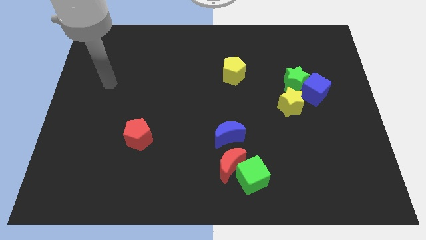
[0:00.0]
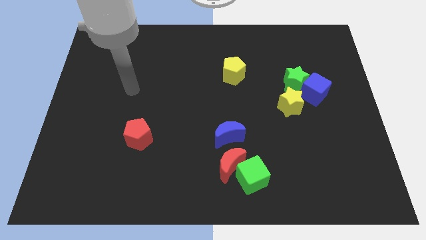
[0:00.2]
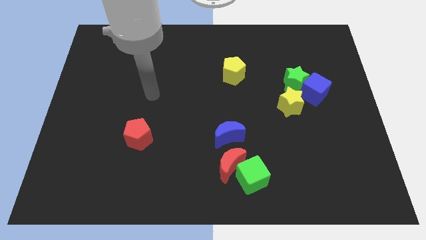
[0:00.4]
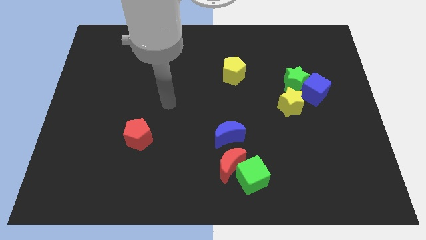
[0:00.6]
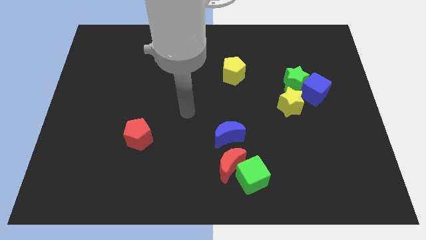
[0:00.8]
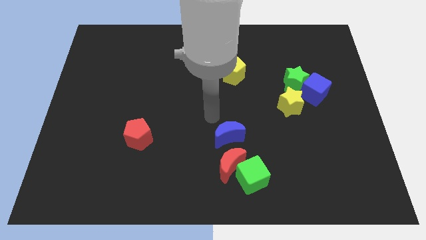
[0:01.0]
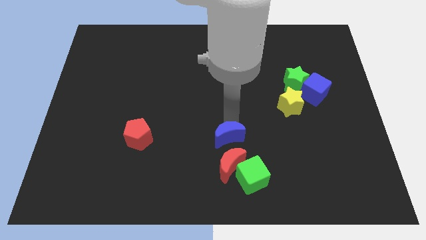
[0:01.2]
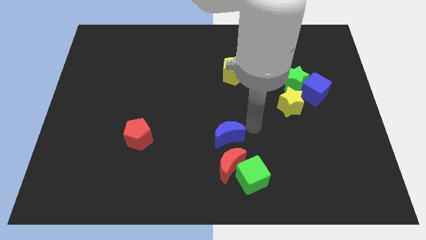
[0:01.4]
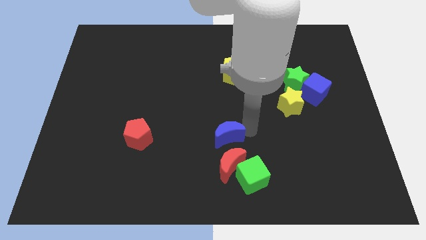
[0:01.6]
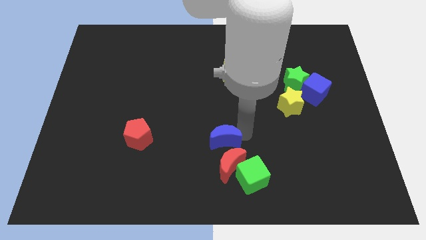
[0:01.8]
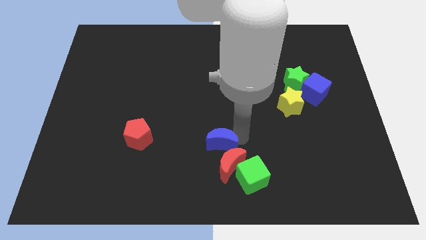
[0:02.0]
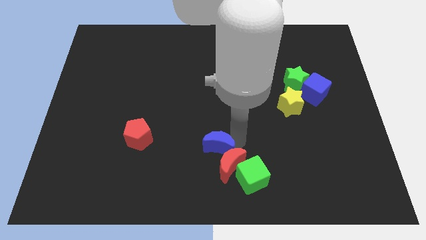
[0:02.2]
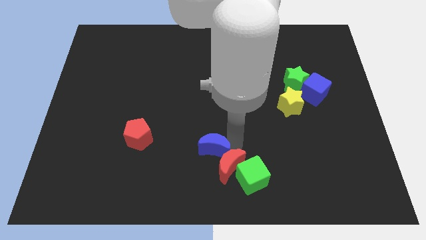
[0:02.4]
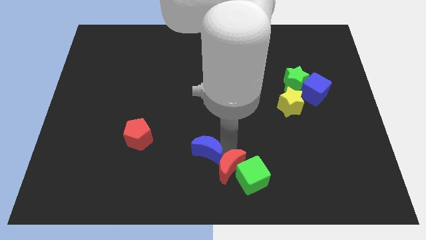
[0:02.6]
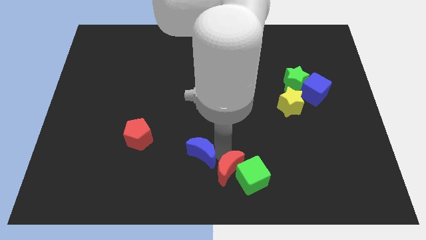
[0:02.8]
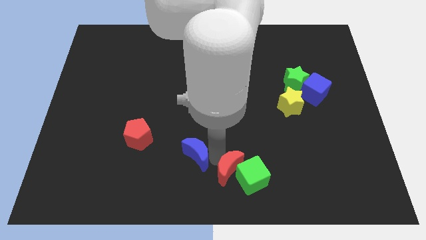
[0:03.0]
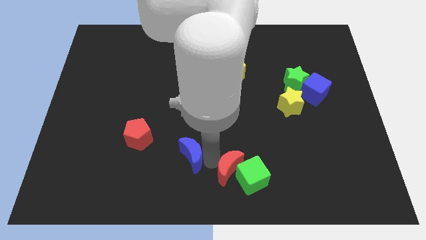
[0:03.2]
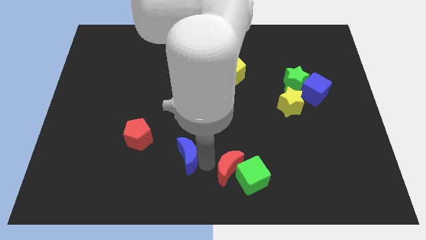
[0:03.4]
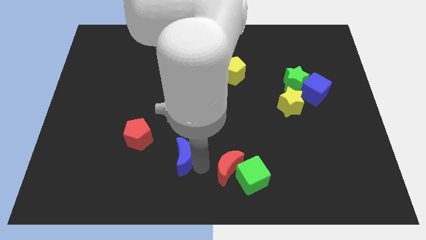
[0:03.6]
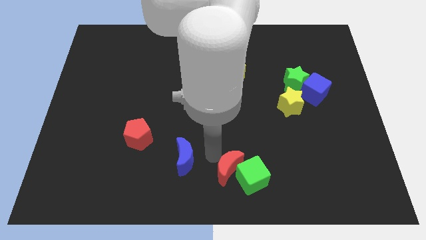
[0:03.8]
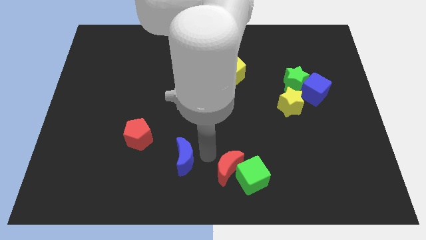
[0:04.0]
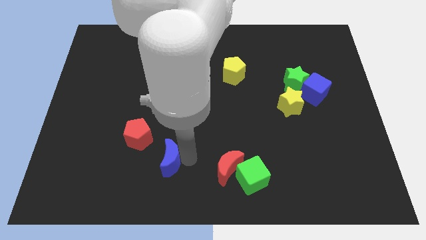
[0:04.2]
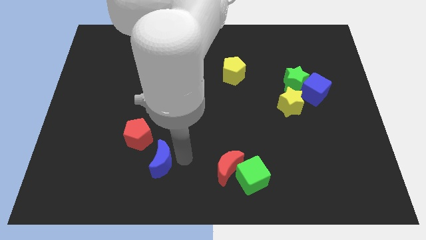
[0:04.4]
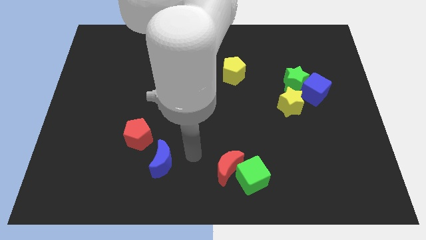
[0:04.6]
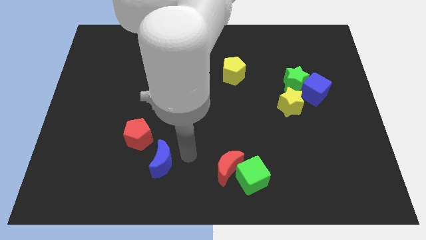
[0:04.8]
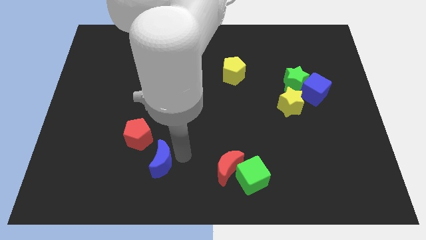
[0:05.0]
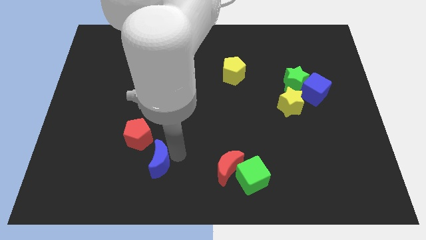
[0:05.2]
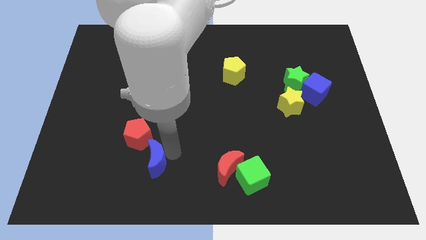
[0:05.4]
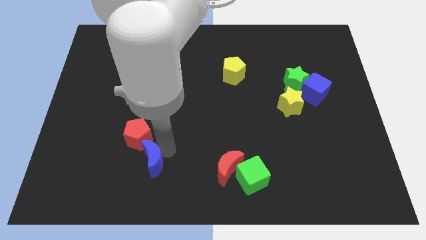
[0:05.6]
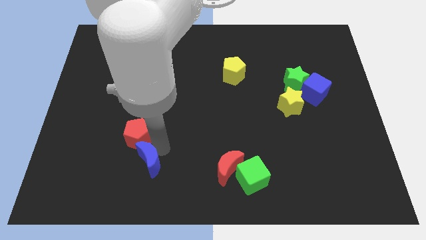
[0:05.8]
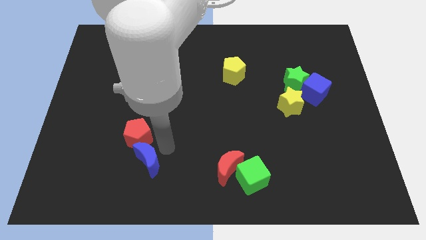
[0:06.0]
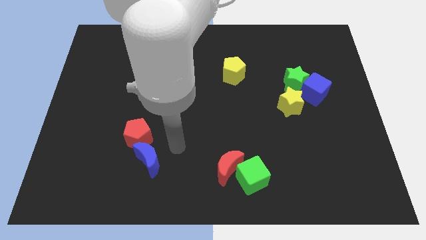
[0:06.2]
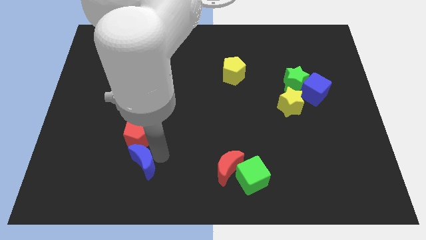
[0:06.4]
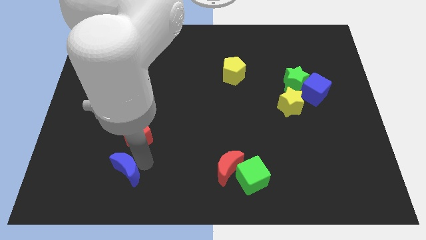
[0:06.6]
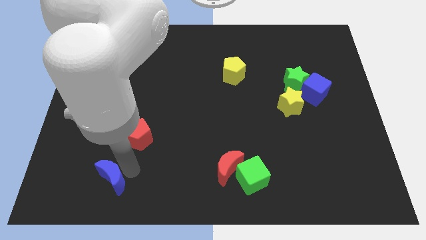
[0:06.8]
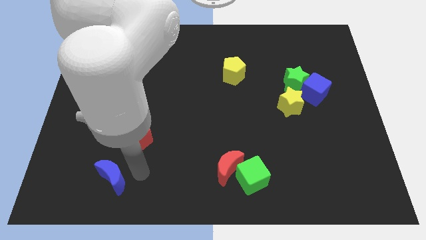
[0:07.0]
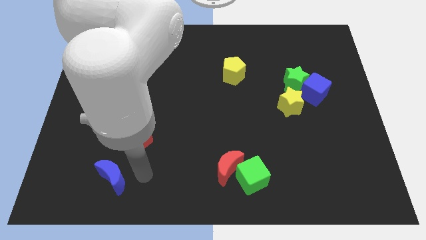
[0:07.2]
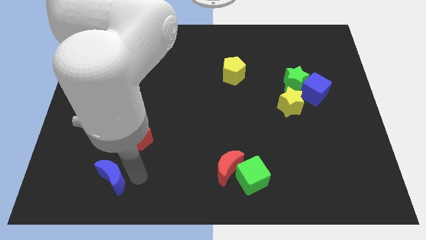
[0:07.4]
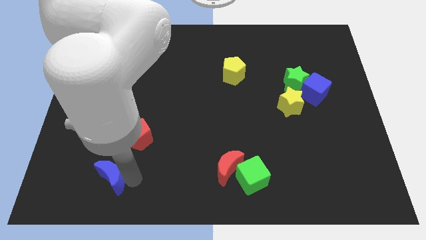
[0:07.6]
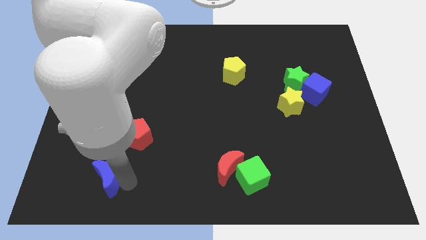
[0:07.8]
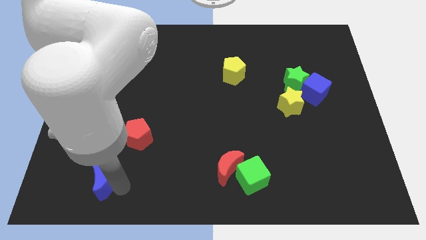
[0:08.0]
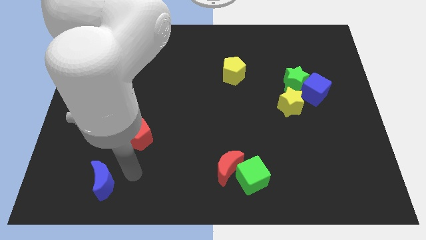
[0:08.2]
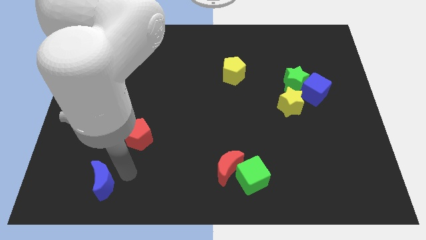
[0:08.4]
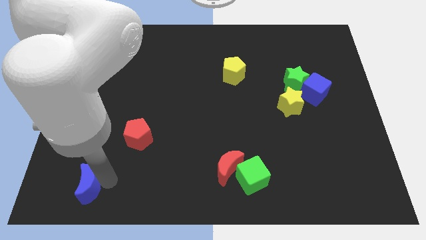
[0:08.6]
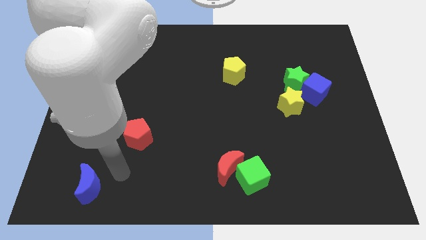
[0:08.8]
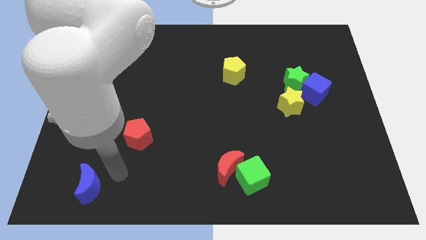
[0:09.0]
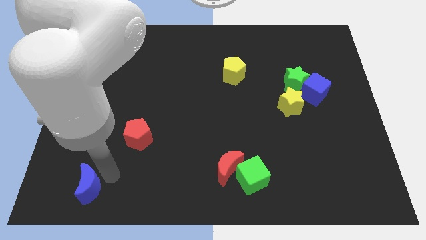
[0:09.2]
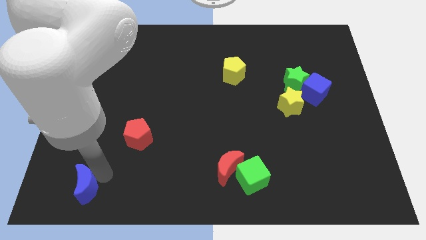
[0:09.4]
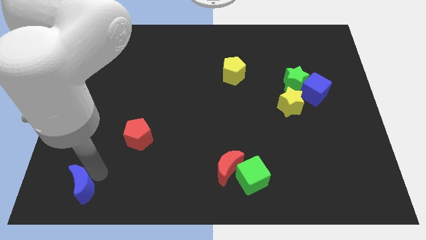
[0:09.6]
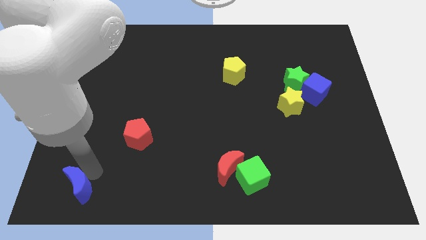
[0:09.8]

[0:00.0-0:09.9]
push the blue moon to the bottom left

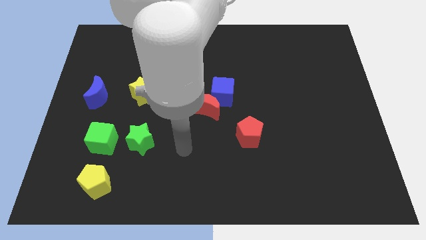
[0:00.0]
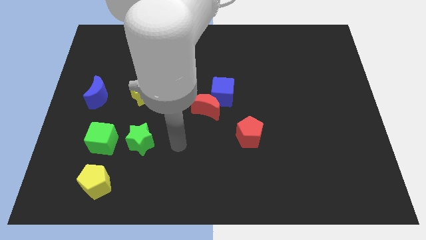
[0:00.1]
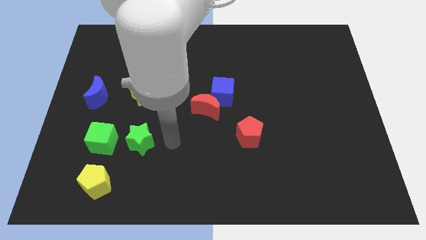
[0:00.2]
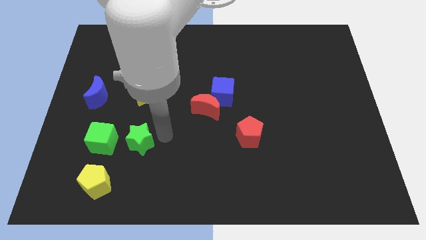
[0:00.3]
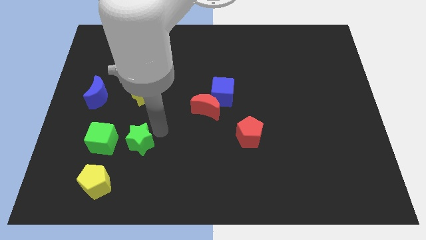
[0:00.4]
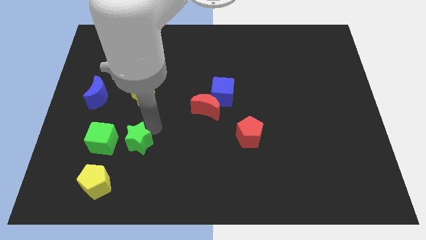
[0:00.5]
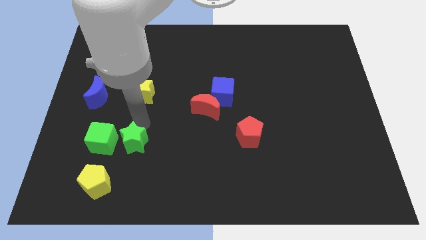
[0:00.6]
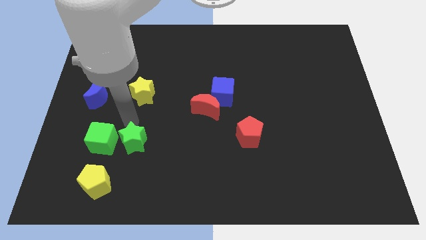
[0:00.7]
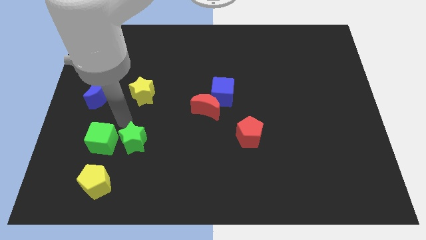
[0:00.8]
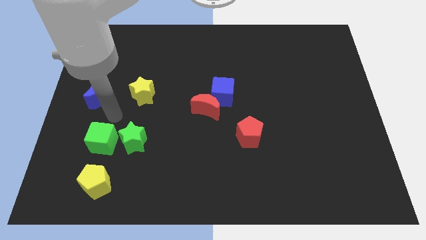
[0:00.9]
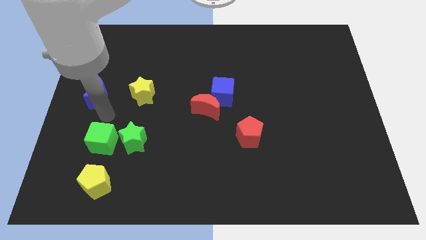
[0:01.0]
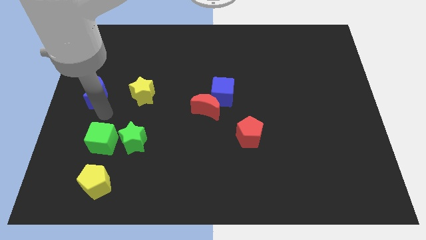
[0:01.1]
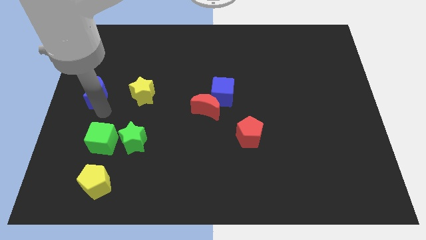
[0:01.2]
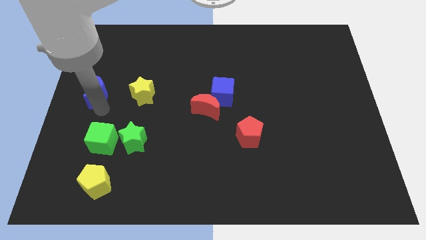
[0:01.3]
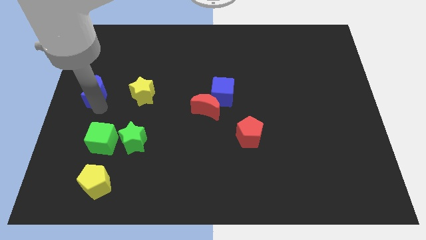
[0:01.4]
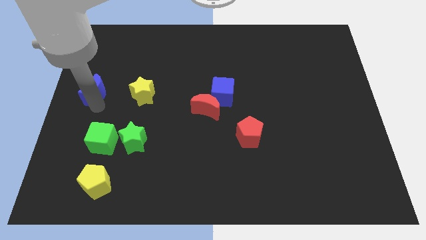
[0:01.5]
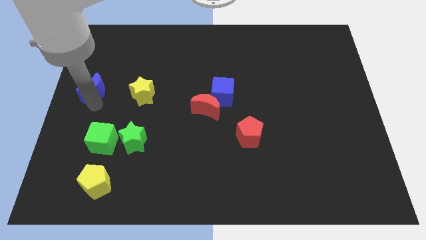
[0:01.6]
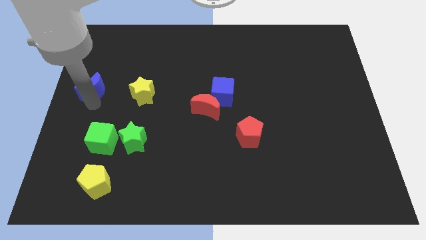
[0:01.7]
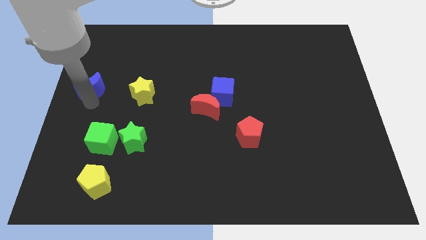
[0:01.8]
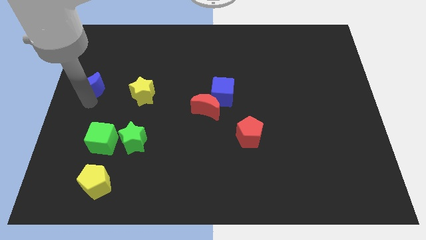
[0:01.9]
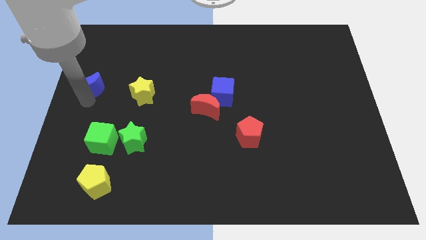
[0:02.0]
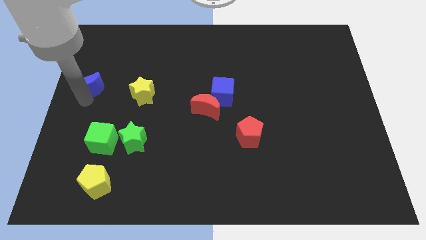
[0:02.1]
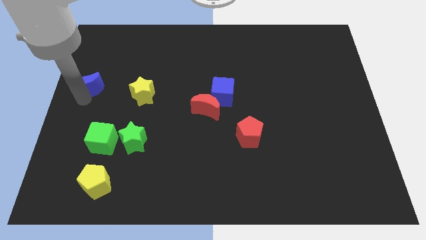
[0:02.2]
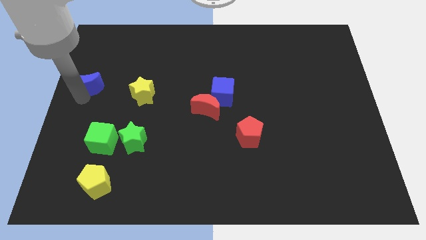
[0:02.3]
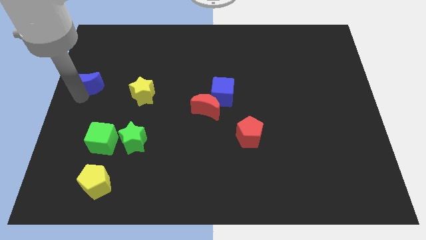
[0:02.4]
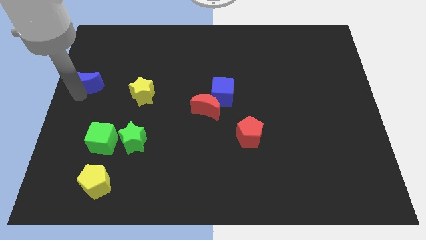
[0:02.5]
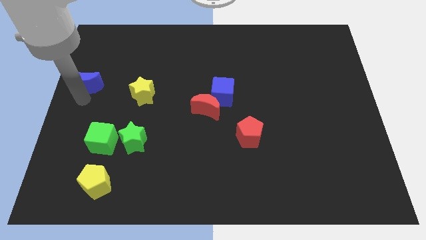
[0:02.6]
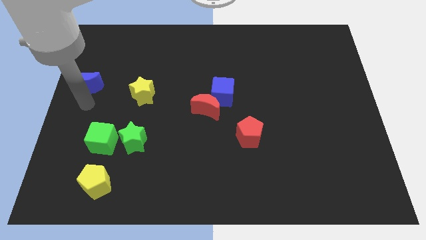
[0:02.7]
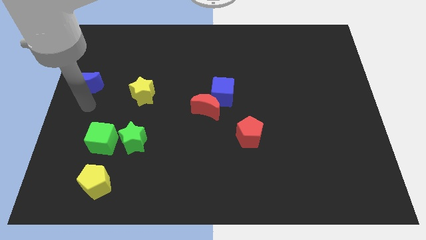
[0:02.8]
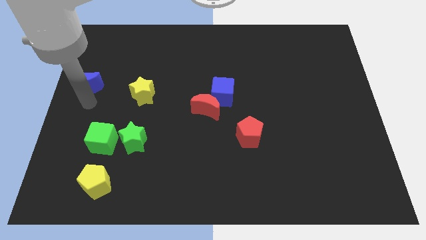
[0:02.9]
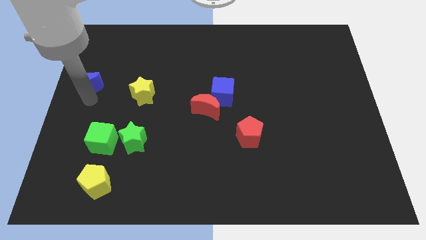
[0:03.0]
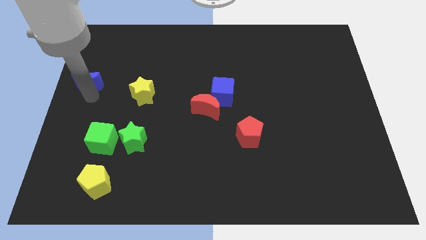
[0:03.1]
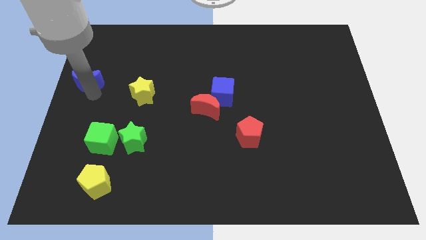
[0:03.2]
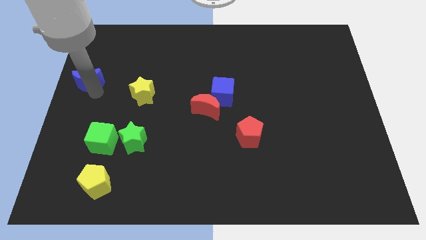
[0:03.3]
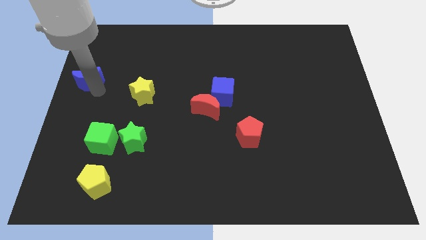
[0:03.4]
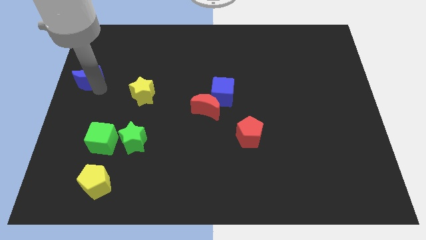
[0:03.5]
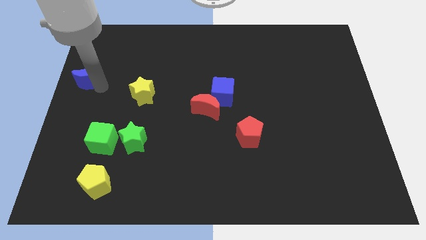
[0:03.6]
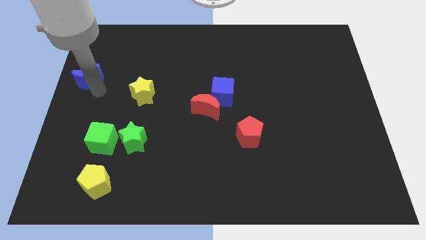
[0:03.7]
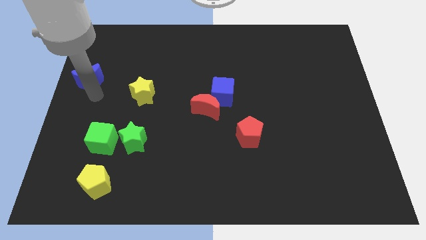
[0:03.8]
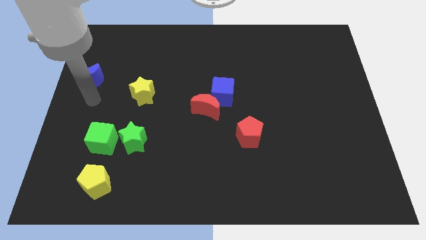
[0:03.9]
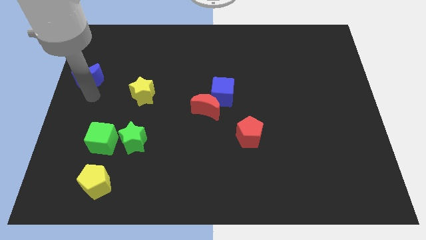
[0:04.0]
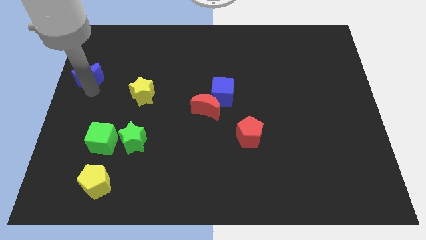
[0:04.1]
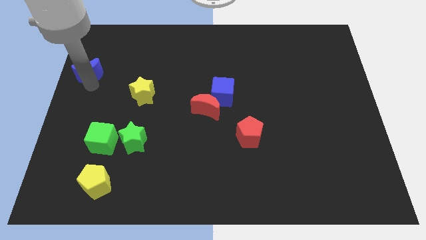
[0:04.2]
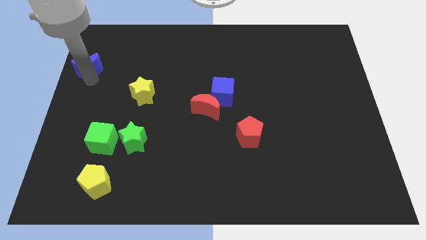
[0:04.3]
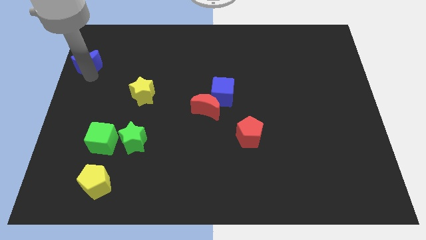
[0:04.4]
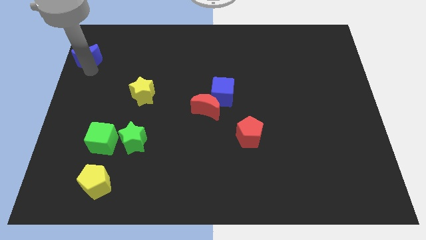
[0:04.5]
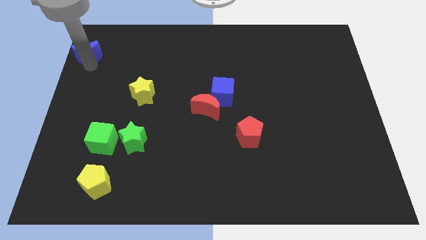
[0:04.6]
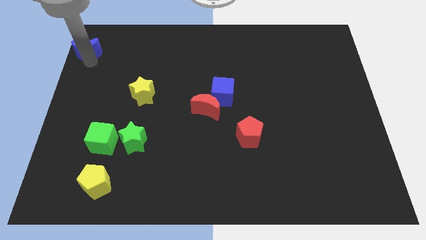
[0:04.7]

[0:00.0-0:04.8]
put the blue moon to the top left
